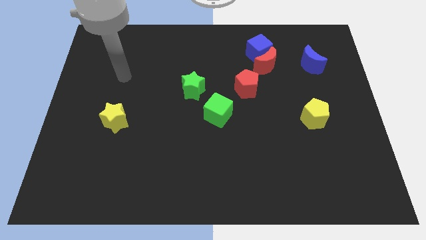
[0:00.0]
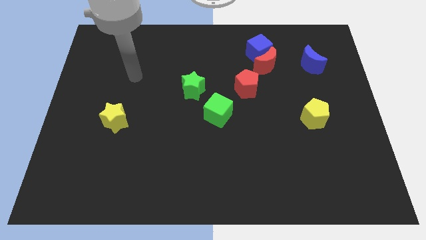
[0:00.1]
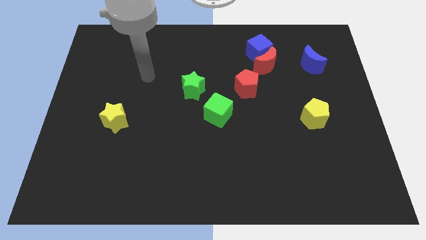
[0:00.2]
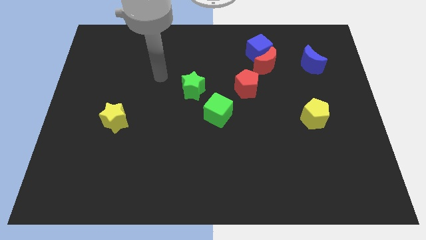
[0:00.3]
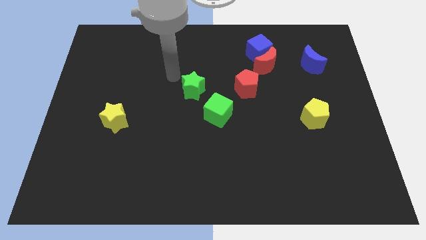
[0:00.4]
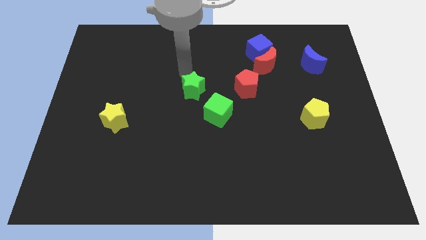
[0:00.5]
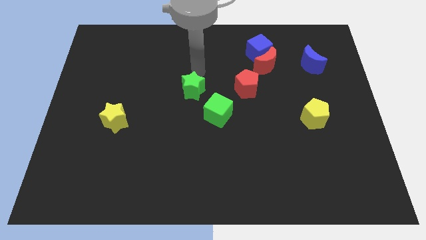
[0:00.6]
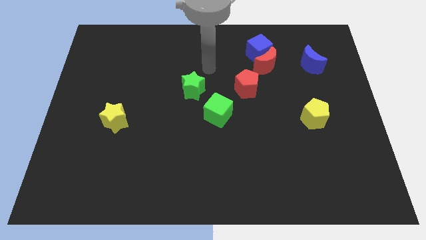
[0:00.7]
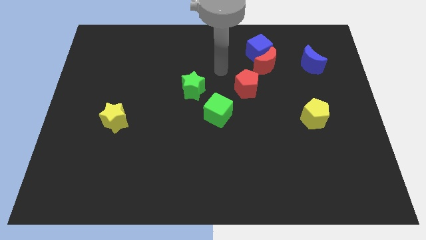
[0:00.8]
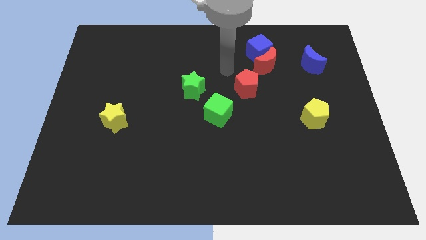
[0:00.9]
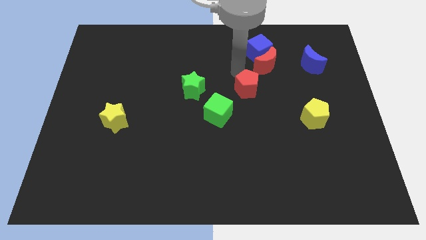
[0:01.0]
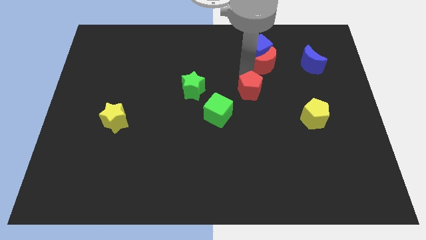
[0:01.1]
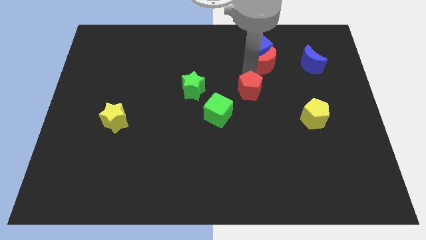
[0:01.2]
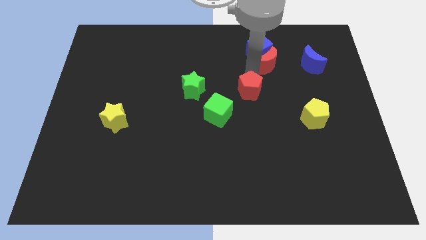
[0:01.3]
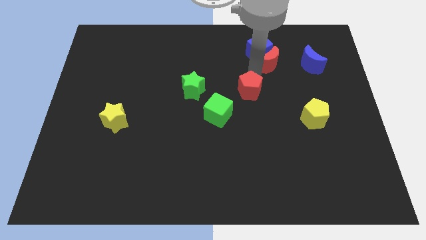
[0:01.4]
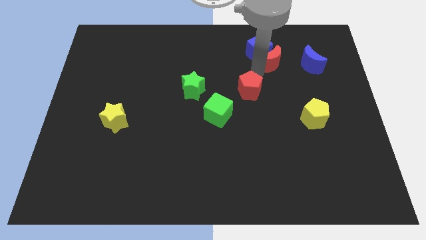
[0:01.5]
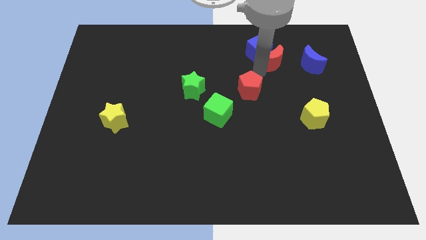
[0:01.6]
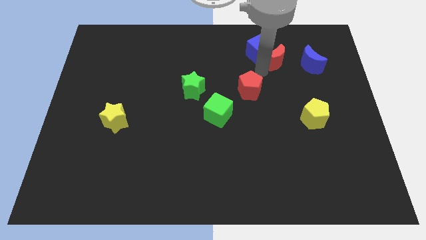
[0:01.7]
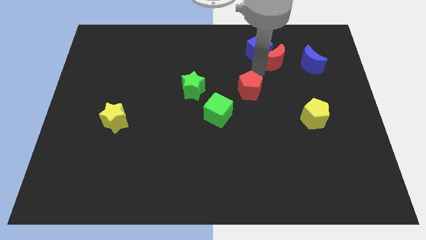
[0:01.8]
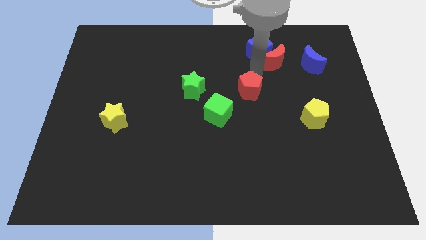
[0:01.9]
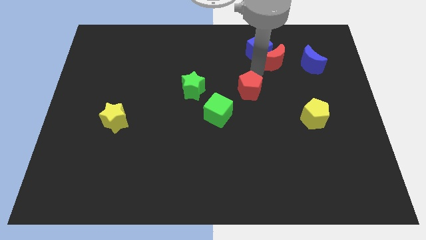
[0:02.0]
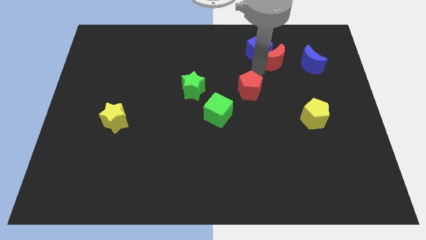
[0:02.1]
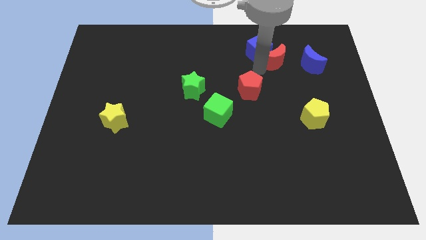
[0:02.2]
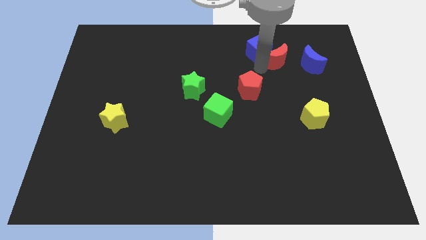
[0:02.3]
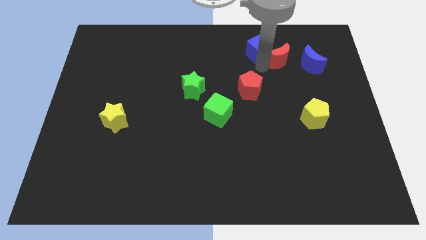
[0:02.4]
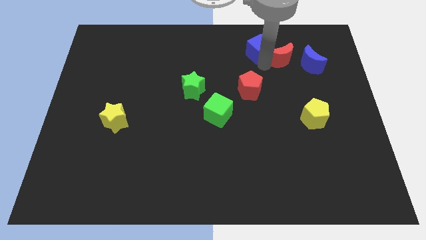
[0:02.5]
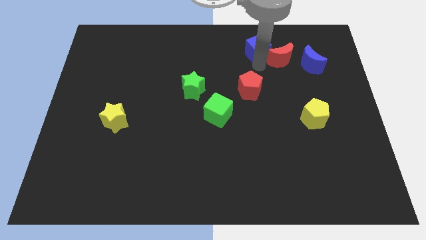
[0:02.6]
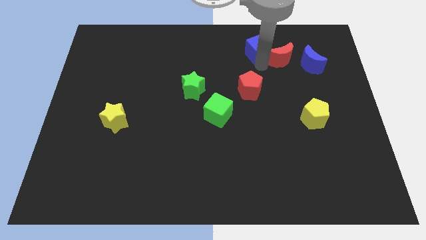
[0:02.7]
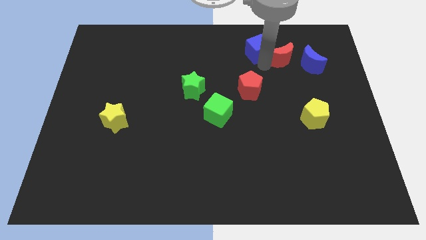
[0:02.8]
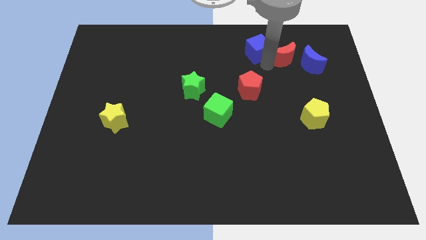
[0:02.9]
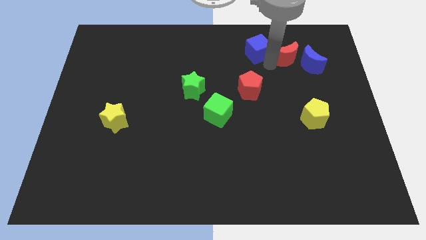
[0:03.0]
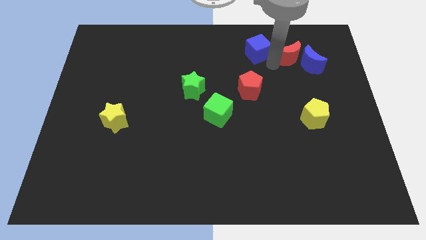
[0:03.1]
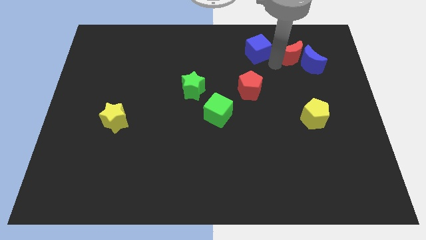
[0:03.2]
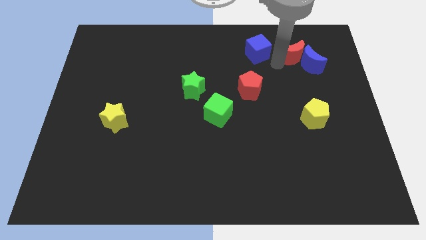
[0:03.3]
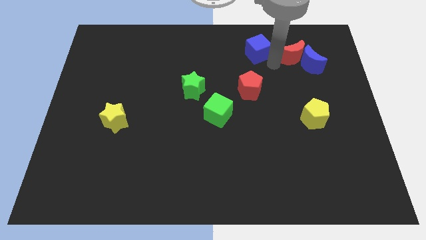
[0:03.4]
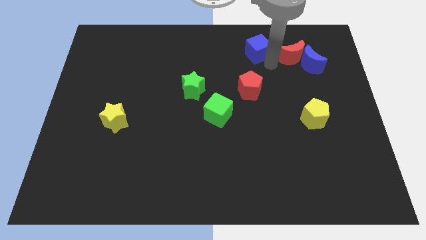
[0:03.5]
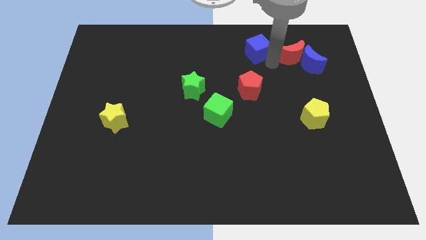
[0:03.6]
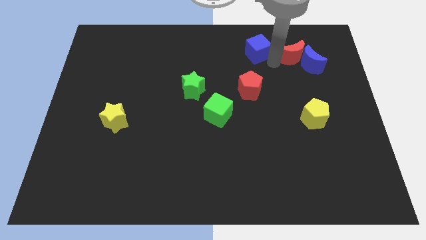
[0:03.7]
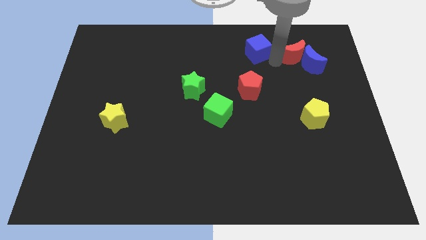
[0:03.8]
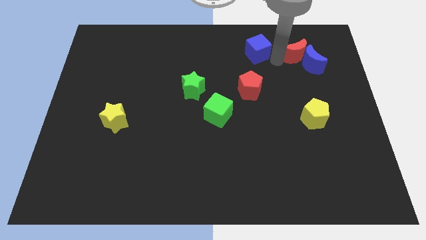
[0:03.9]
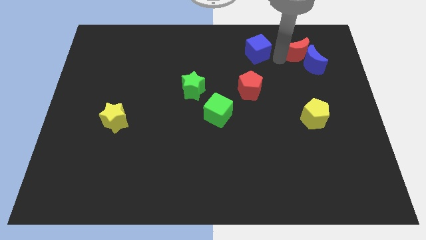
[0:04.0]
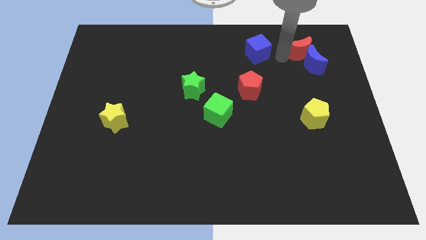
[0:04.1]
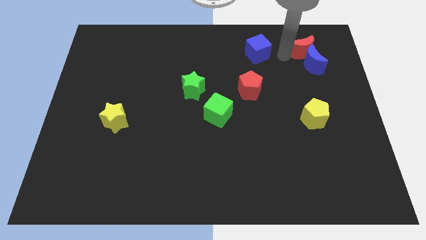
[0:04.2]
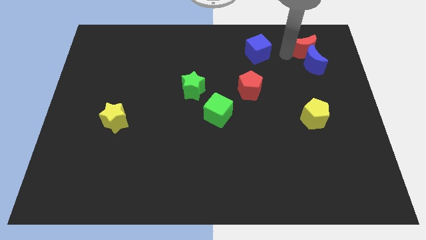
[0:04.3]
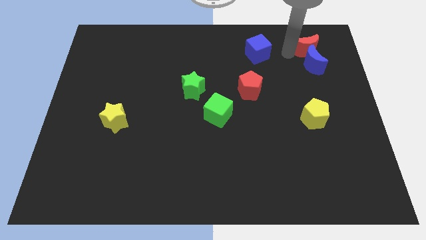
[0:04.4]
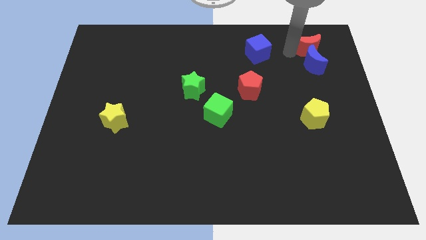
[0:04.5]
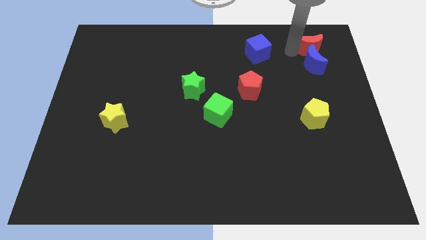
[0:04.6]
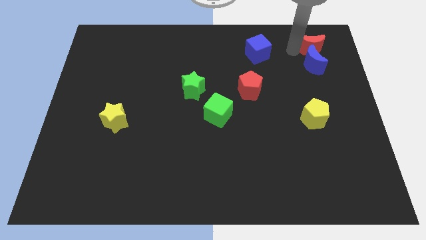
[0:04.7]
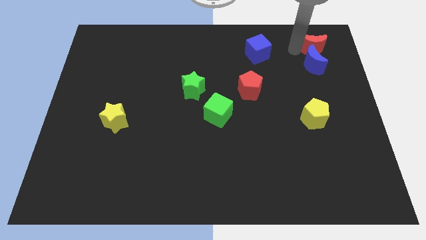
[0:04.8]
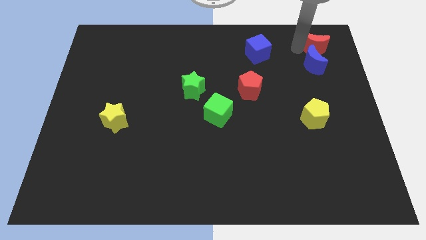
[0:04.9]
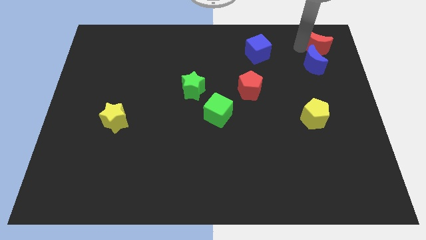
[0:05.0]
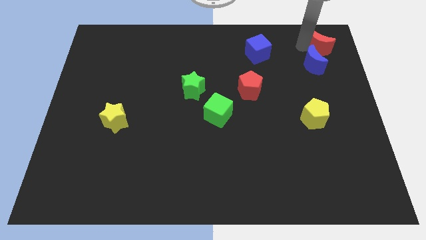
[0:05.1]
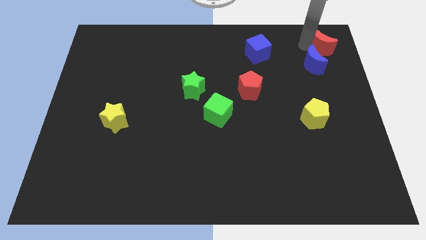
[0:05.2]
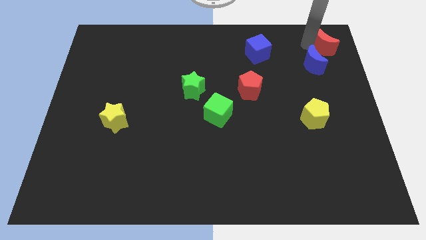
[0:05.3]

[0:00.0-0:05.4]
move the red moon to the top right

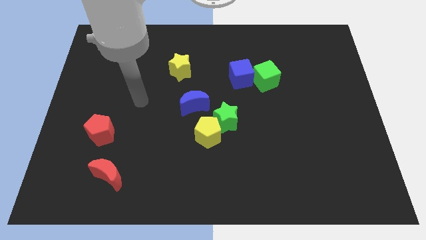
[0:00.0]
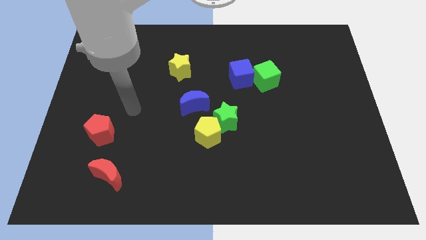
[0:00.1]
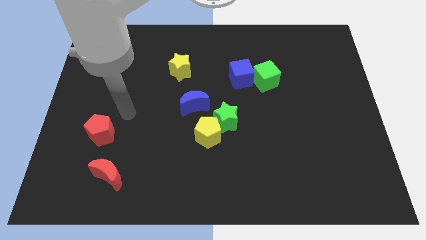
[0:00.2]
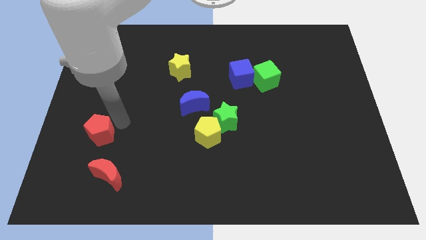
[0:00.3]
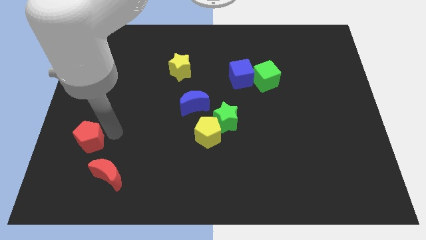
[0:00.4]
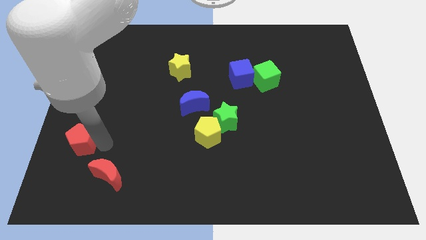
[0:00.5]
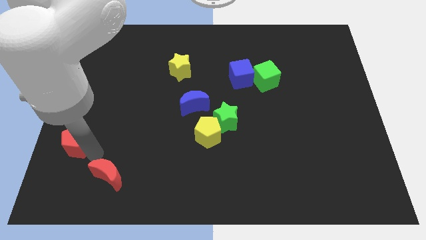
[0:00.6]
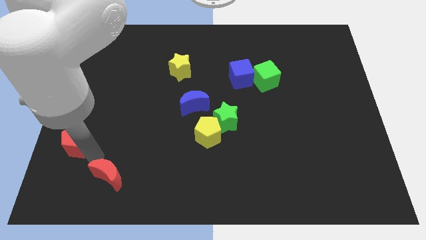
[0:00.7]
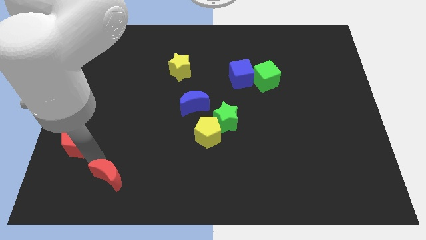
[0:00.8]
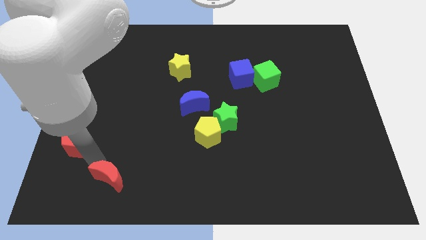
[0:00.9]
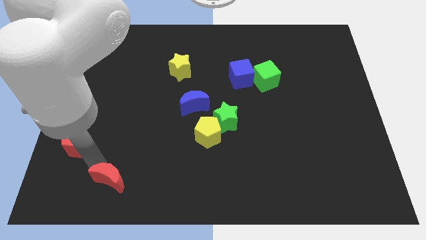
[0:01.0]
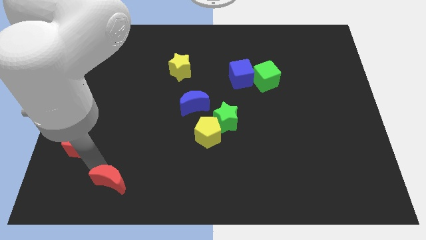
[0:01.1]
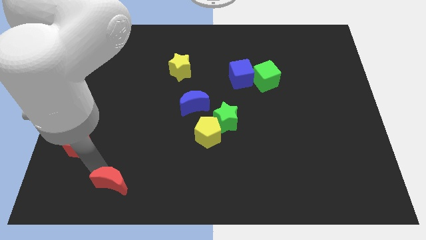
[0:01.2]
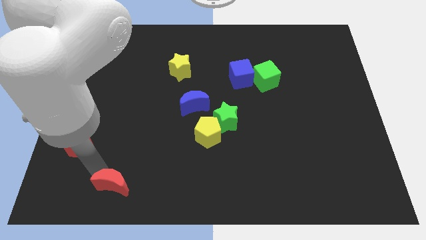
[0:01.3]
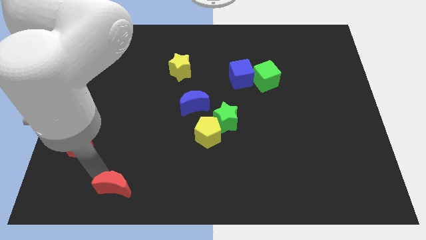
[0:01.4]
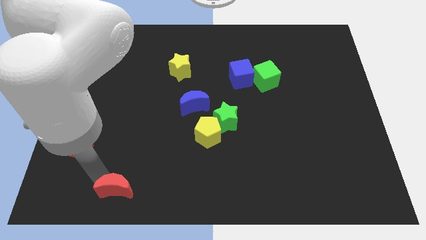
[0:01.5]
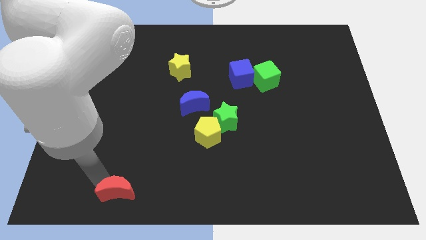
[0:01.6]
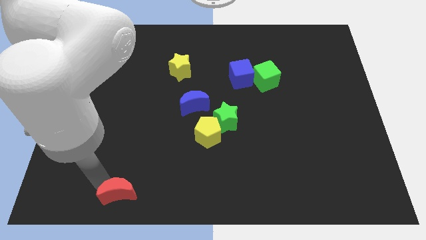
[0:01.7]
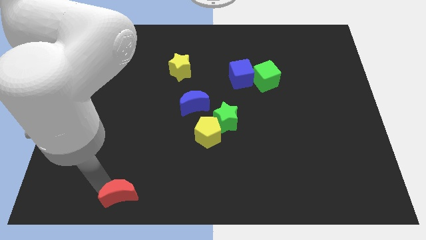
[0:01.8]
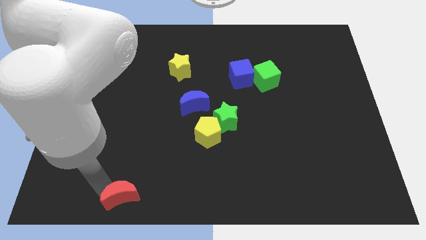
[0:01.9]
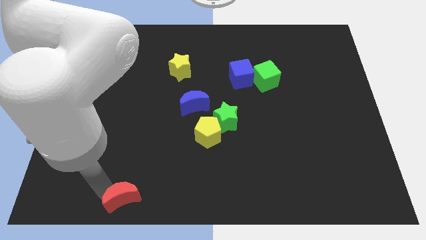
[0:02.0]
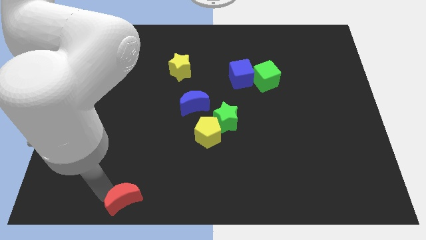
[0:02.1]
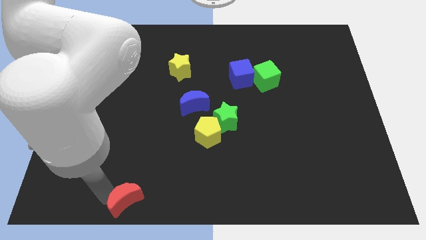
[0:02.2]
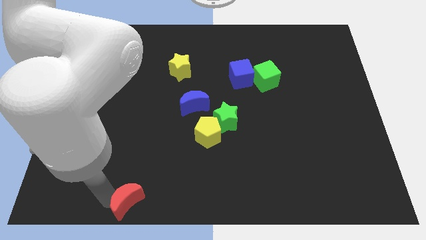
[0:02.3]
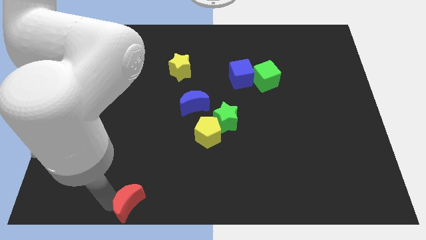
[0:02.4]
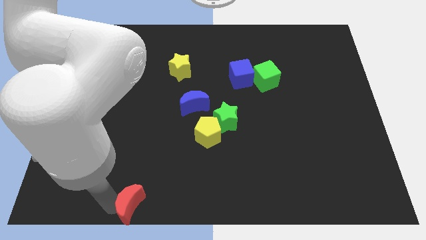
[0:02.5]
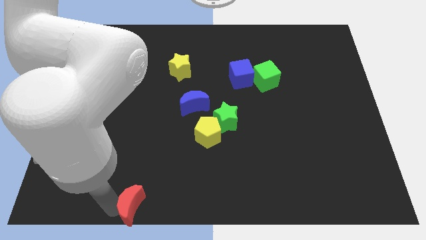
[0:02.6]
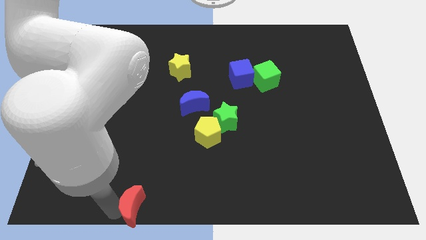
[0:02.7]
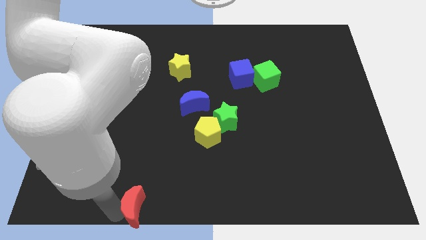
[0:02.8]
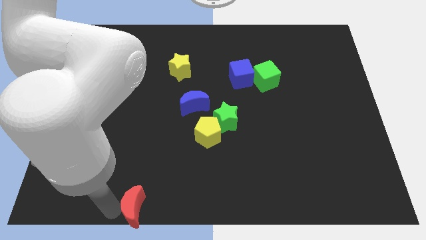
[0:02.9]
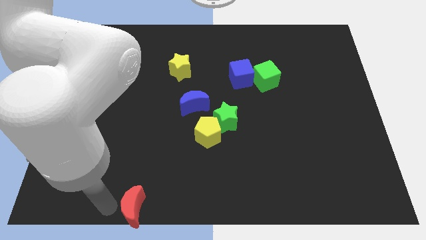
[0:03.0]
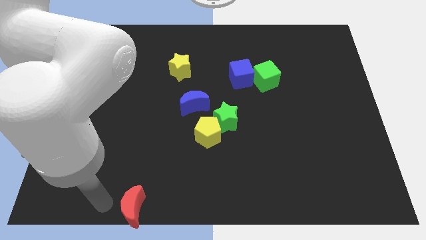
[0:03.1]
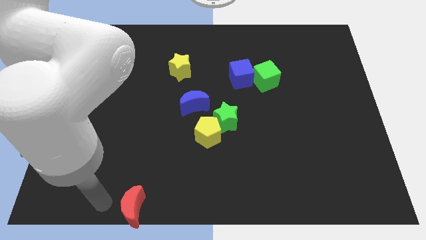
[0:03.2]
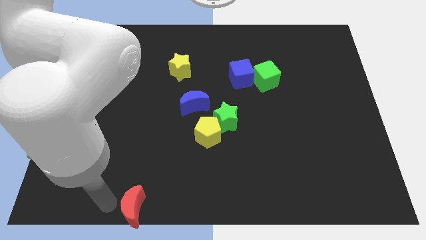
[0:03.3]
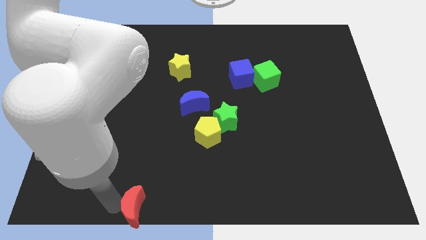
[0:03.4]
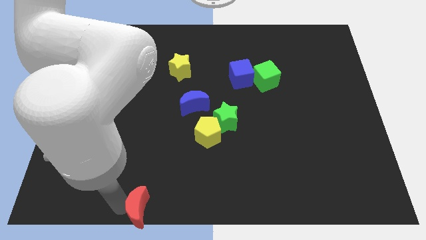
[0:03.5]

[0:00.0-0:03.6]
slide the red moon to the bottom side
